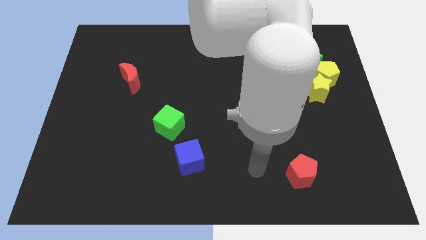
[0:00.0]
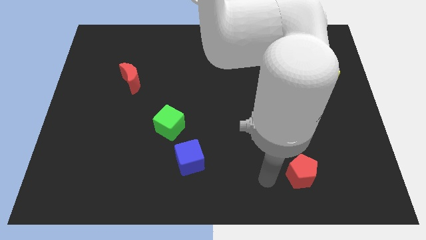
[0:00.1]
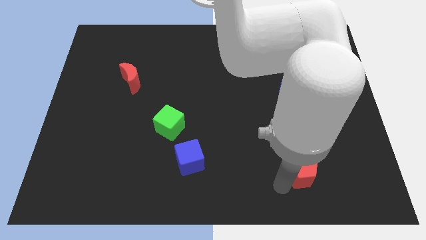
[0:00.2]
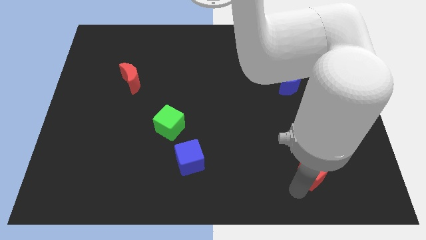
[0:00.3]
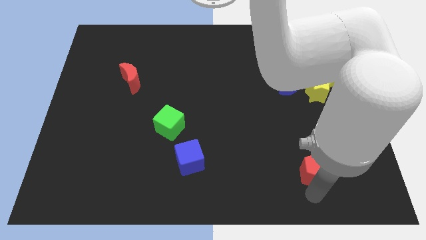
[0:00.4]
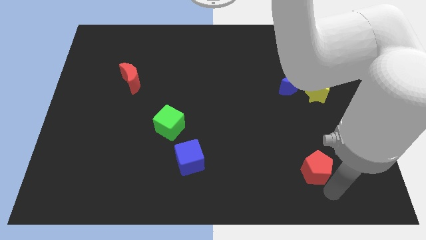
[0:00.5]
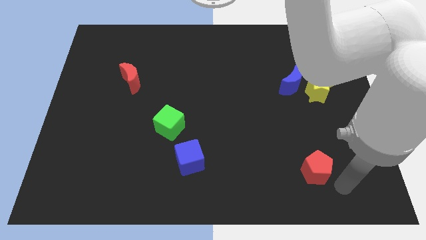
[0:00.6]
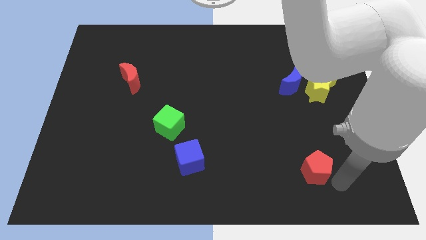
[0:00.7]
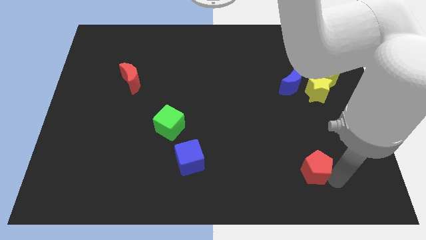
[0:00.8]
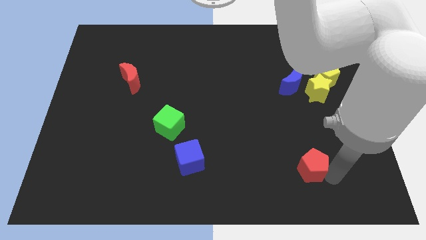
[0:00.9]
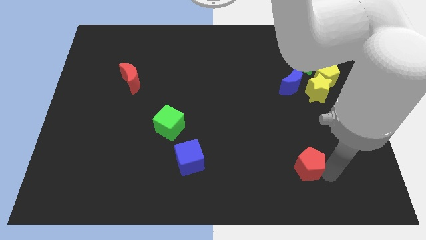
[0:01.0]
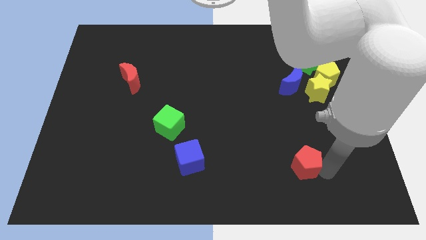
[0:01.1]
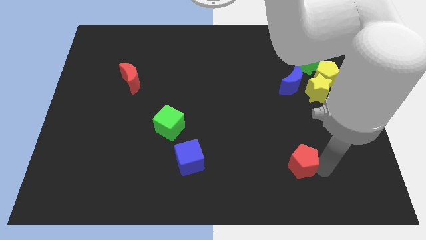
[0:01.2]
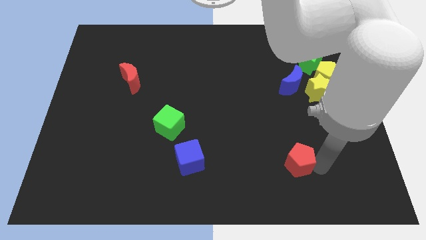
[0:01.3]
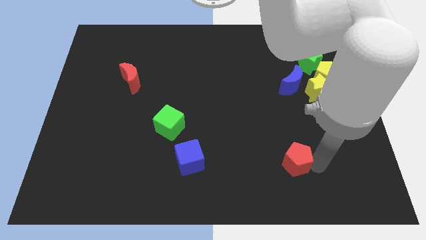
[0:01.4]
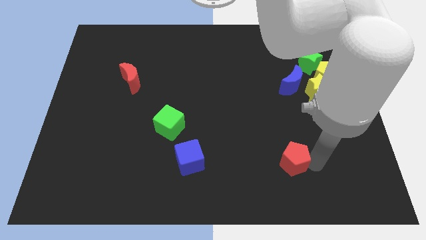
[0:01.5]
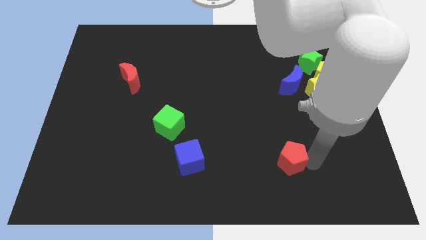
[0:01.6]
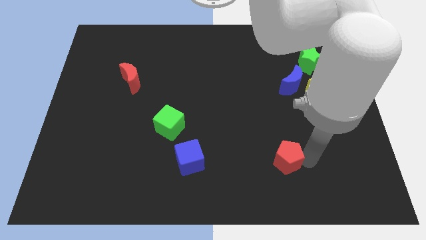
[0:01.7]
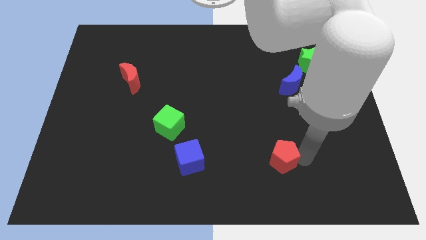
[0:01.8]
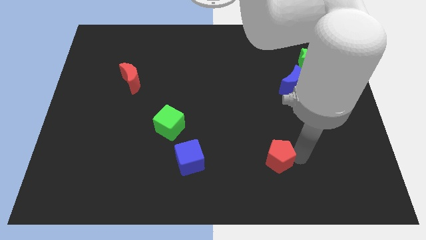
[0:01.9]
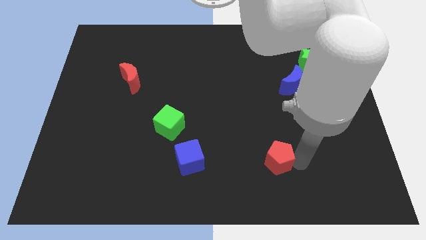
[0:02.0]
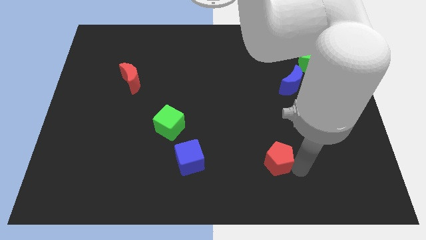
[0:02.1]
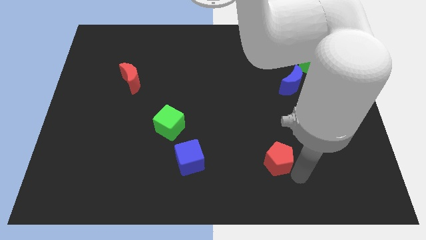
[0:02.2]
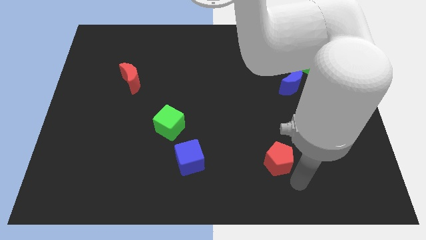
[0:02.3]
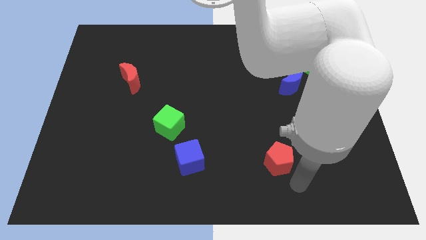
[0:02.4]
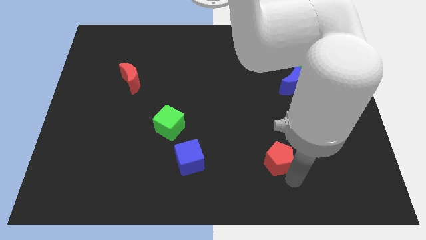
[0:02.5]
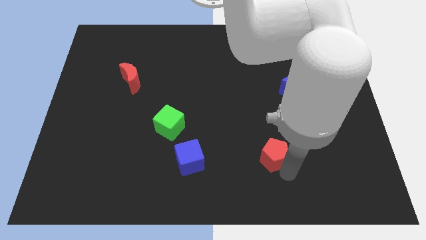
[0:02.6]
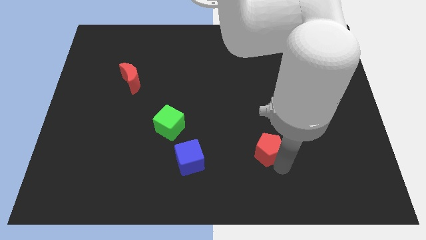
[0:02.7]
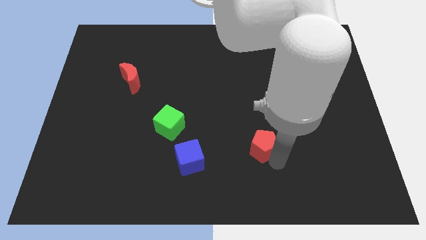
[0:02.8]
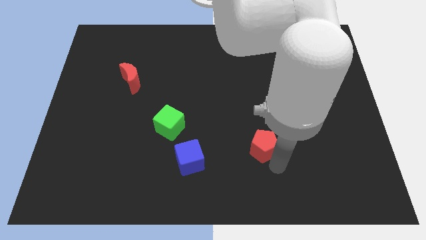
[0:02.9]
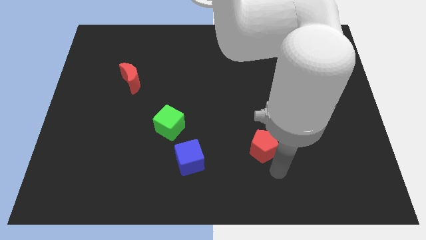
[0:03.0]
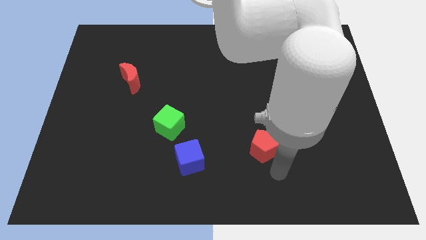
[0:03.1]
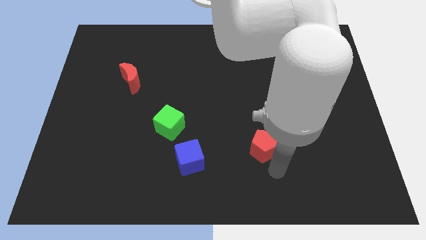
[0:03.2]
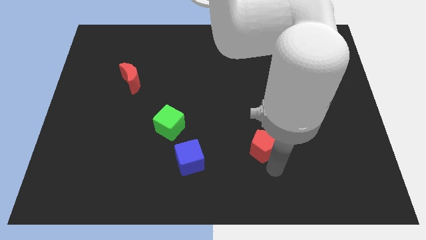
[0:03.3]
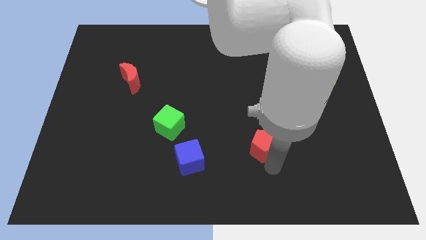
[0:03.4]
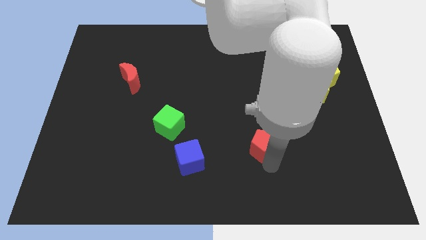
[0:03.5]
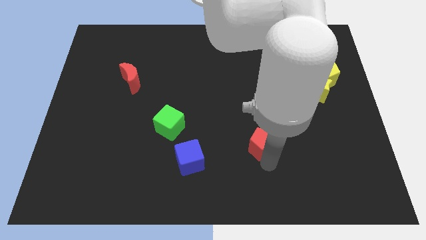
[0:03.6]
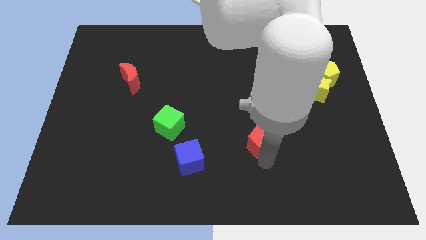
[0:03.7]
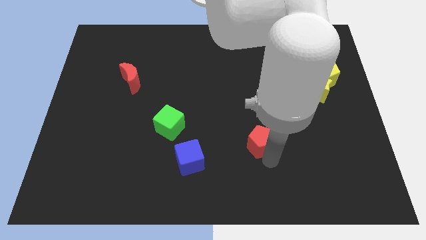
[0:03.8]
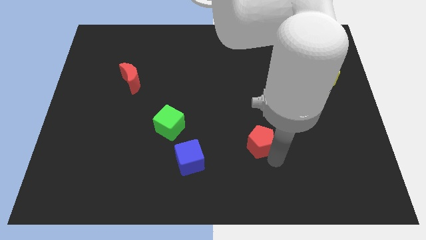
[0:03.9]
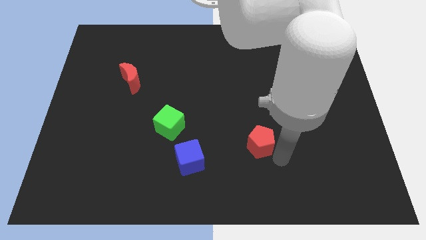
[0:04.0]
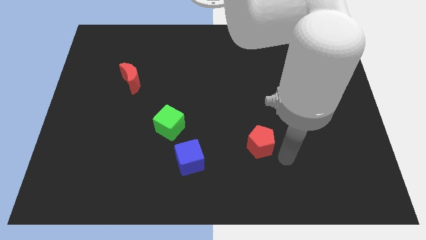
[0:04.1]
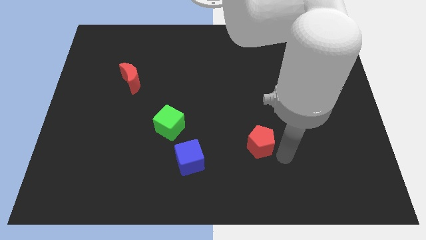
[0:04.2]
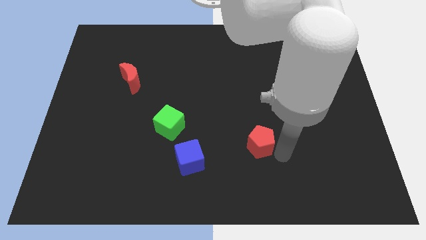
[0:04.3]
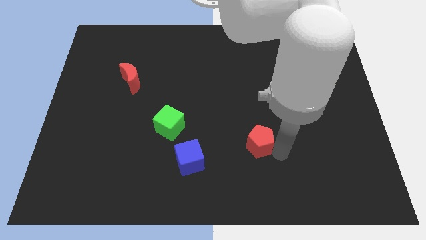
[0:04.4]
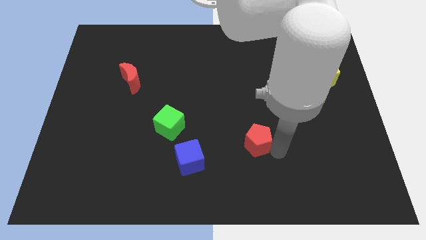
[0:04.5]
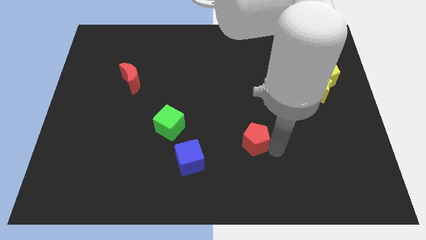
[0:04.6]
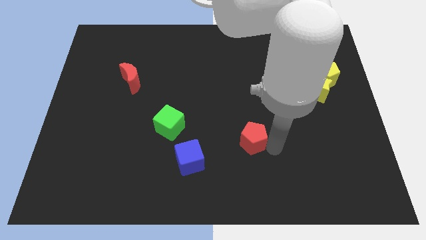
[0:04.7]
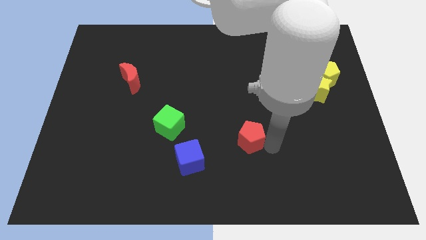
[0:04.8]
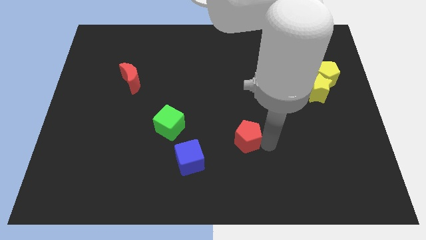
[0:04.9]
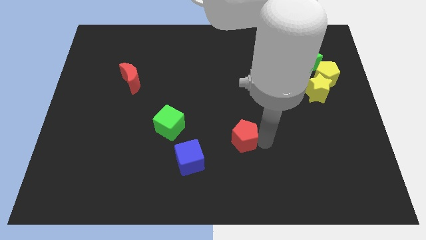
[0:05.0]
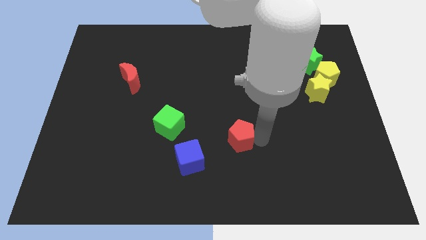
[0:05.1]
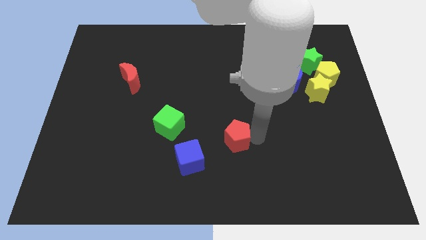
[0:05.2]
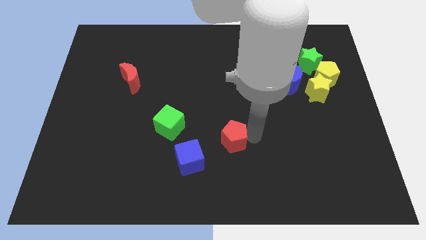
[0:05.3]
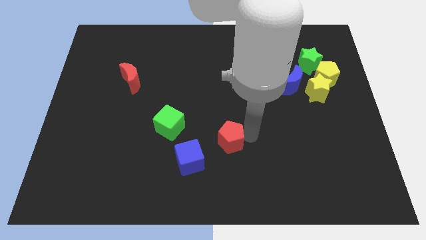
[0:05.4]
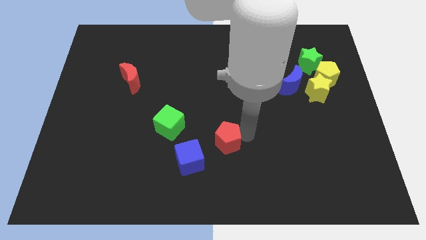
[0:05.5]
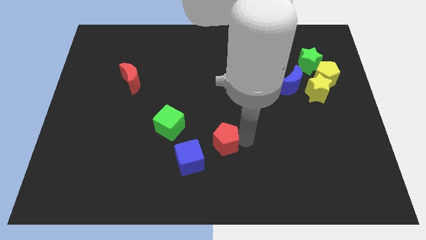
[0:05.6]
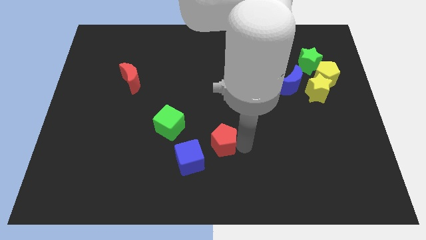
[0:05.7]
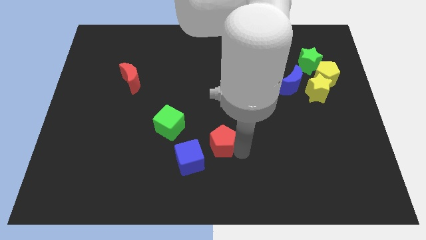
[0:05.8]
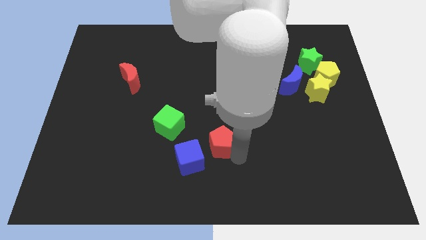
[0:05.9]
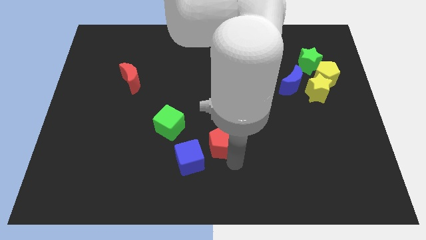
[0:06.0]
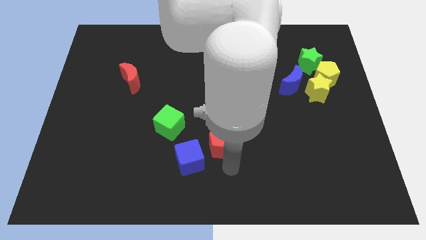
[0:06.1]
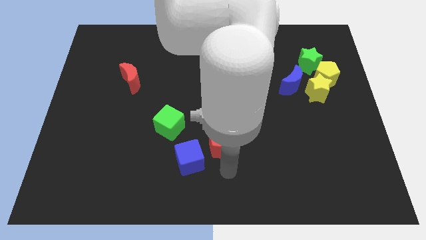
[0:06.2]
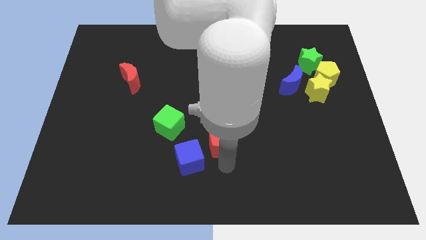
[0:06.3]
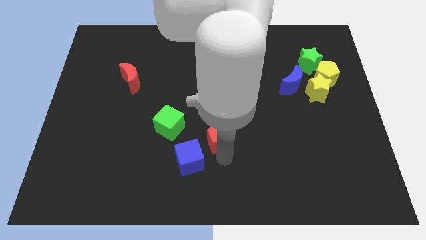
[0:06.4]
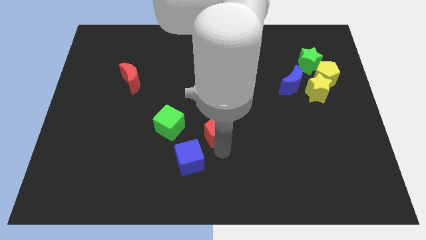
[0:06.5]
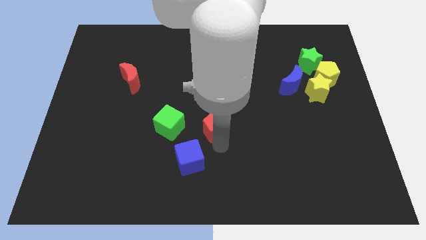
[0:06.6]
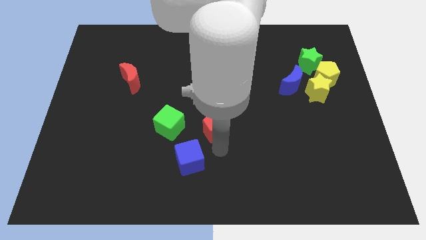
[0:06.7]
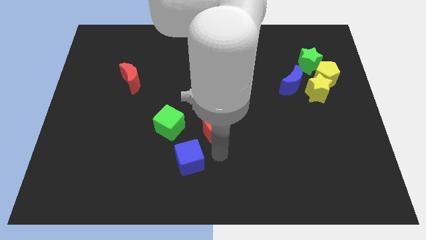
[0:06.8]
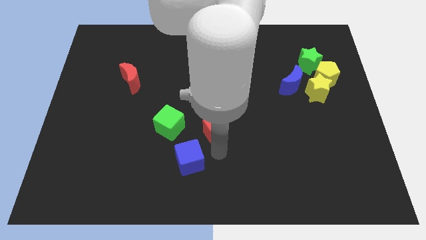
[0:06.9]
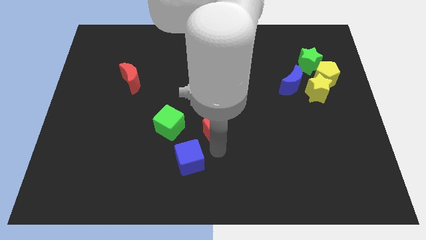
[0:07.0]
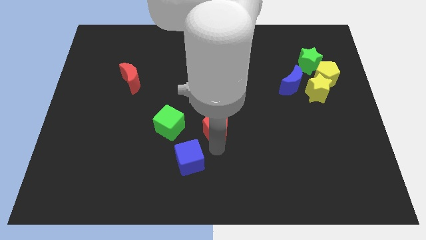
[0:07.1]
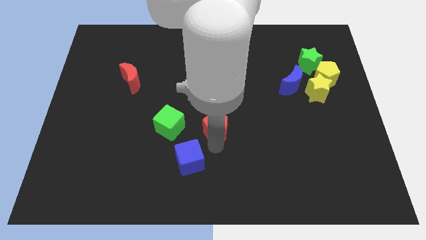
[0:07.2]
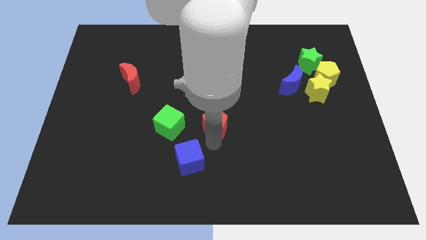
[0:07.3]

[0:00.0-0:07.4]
push the red pentagon upwards and to the left

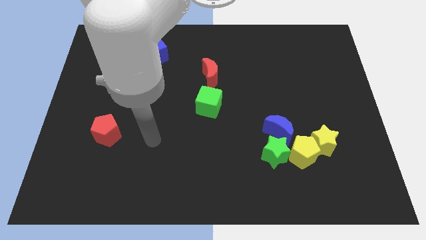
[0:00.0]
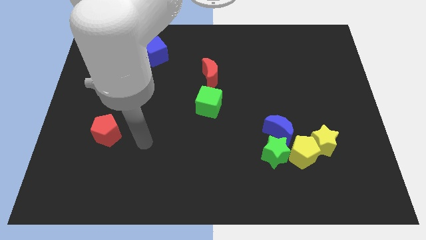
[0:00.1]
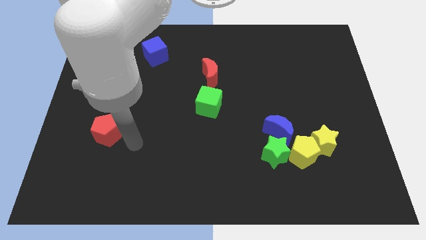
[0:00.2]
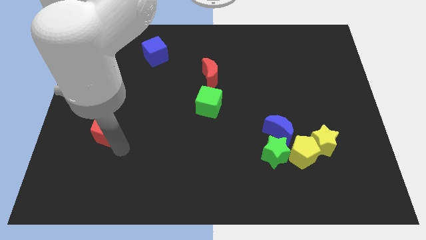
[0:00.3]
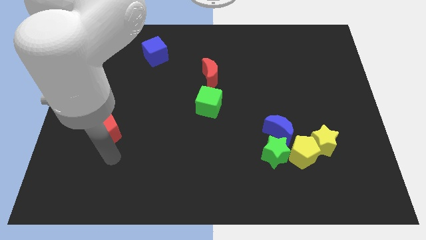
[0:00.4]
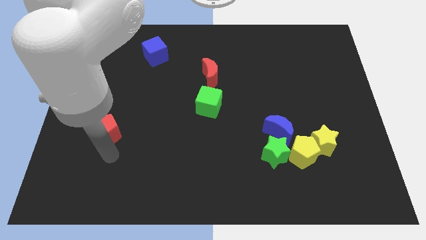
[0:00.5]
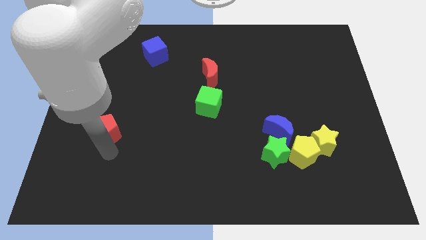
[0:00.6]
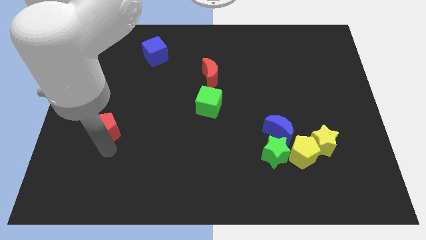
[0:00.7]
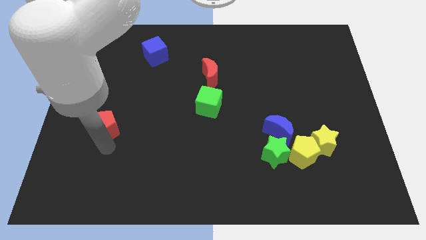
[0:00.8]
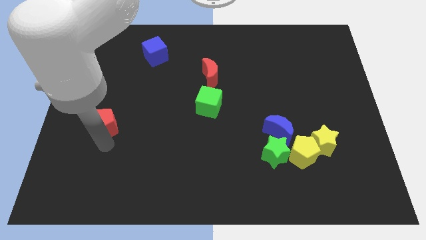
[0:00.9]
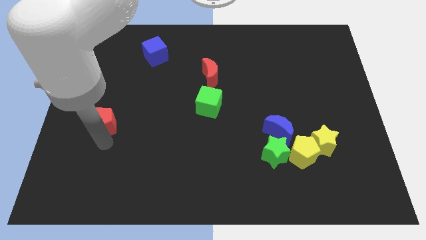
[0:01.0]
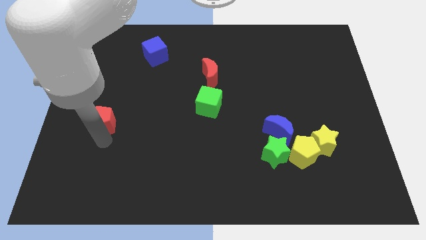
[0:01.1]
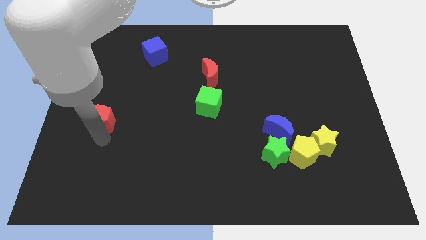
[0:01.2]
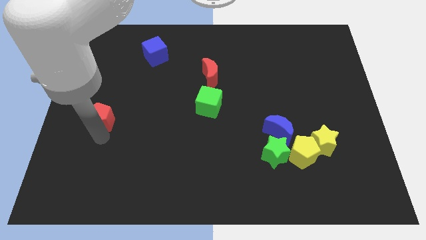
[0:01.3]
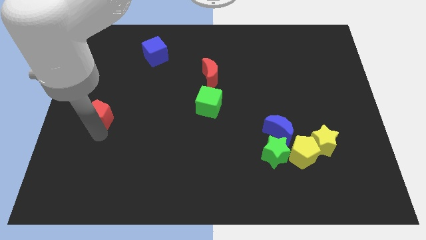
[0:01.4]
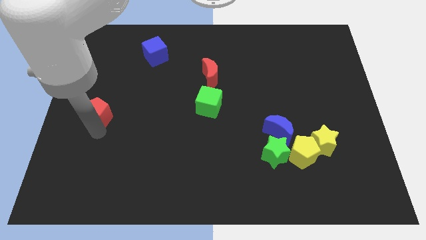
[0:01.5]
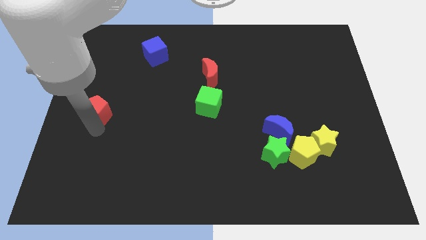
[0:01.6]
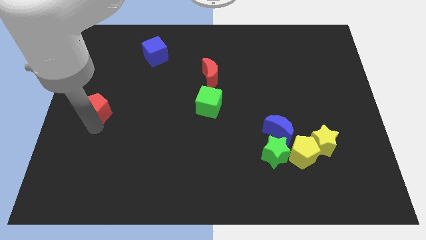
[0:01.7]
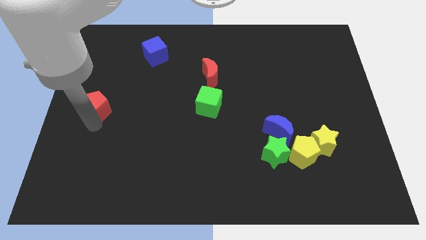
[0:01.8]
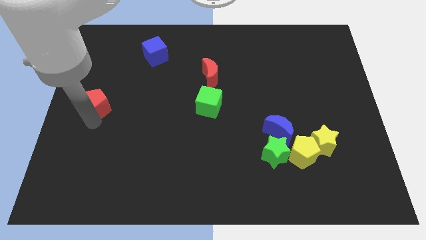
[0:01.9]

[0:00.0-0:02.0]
slightly slide the red pentagon upwards
